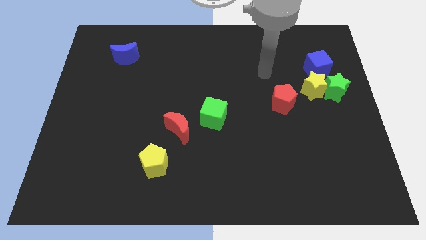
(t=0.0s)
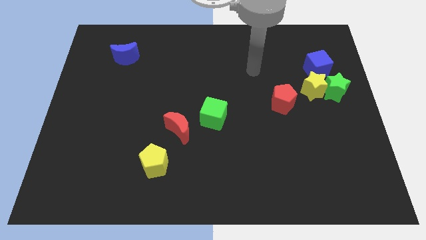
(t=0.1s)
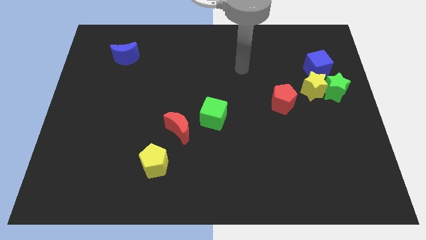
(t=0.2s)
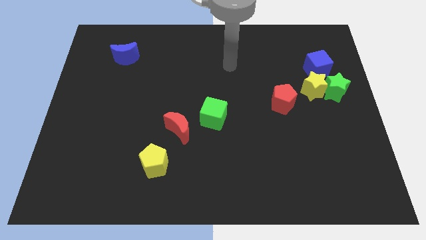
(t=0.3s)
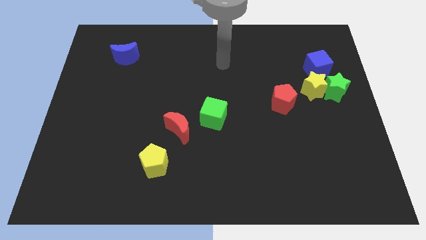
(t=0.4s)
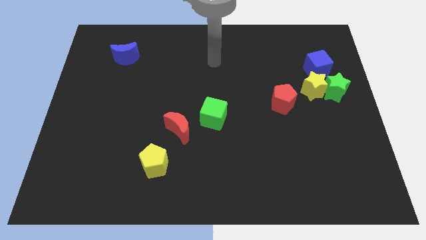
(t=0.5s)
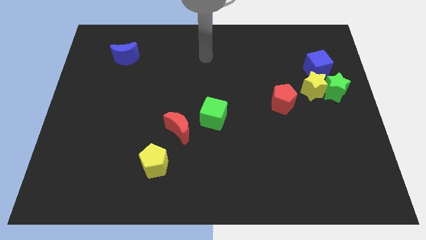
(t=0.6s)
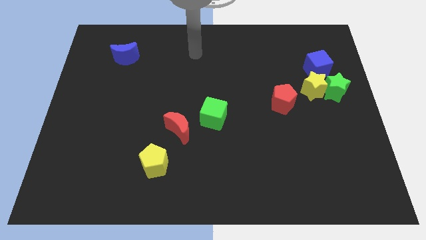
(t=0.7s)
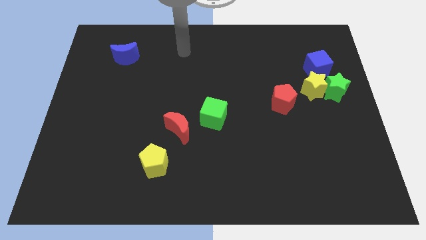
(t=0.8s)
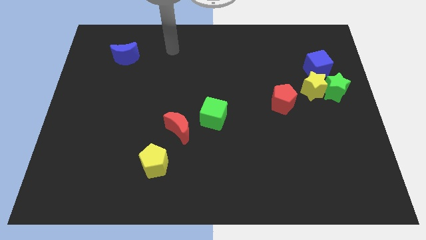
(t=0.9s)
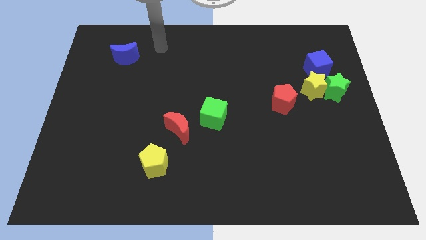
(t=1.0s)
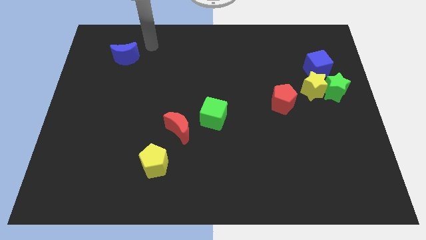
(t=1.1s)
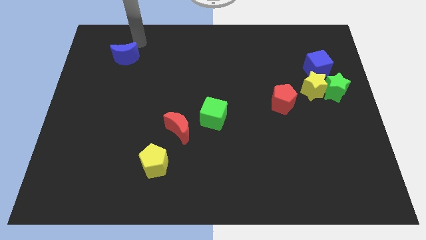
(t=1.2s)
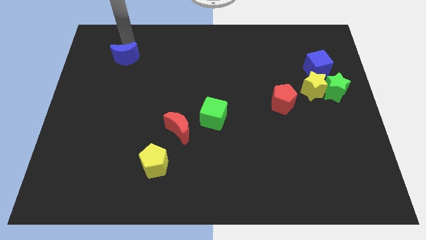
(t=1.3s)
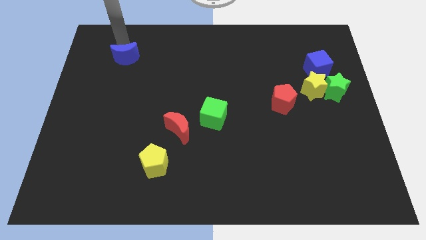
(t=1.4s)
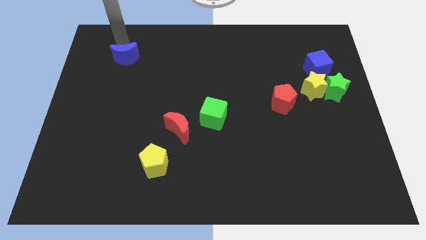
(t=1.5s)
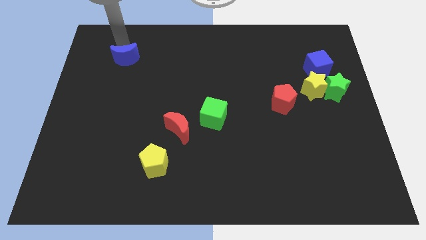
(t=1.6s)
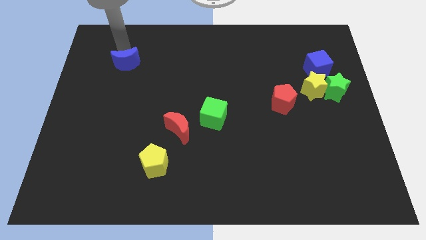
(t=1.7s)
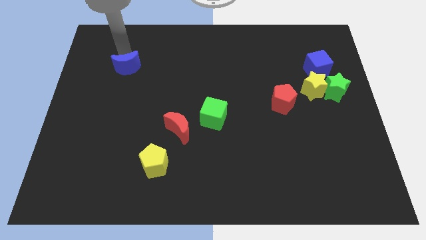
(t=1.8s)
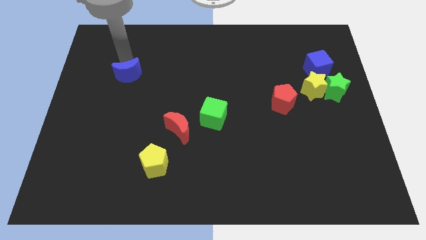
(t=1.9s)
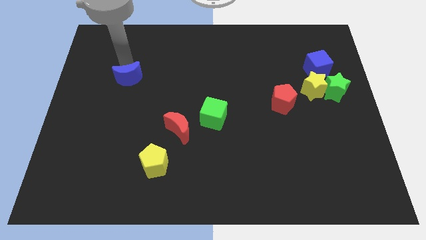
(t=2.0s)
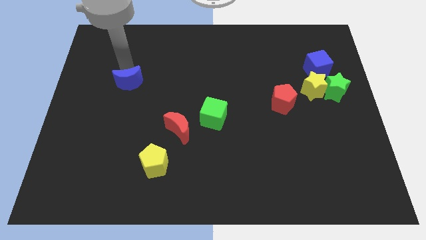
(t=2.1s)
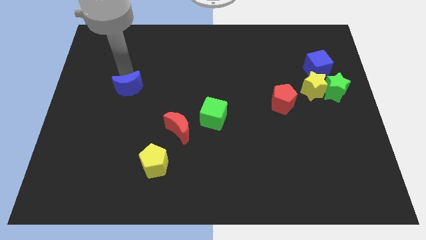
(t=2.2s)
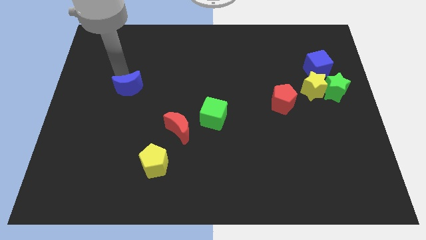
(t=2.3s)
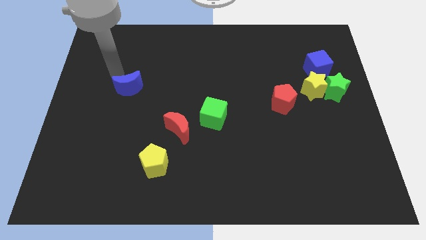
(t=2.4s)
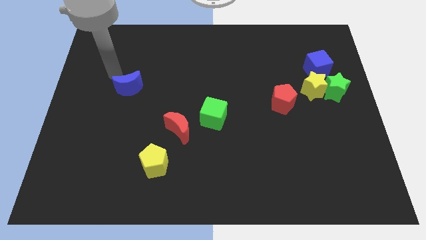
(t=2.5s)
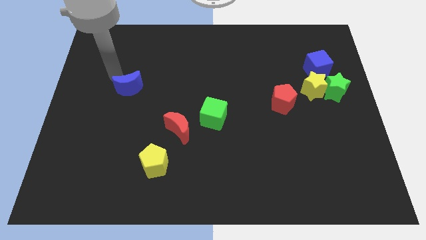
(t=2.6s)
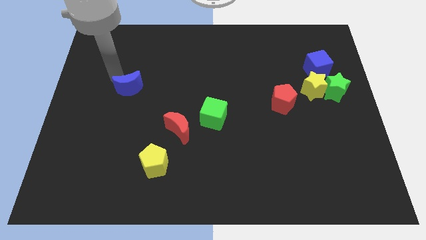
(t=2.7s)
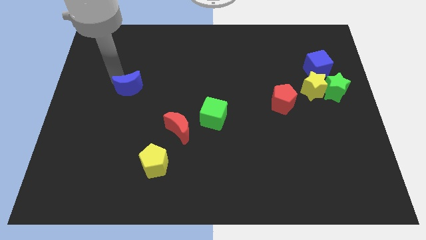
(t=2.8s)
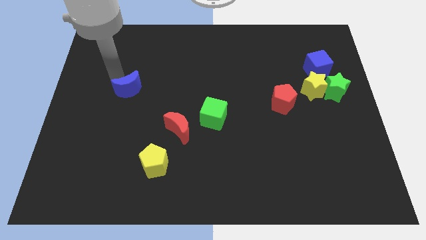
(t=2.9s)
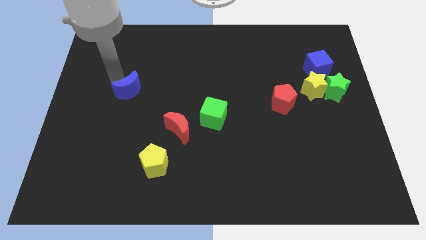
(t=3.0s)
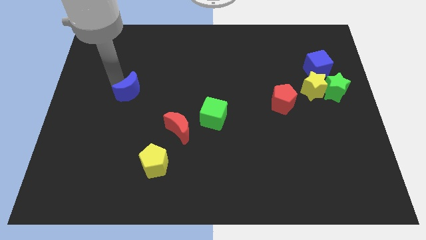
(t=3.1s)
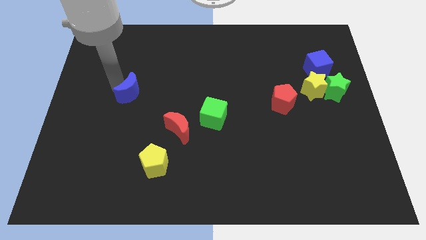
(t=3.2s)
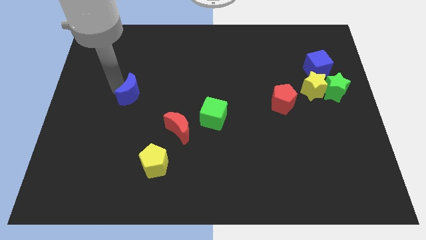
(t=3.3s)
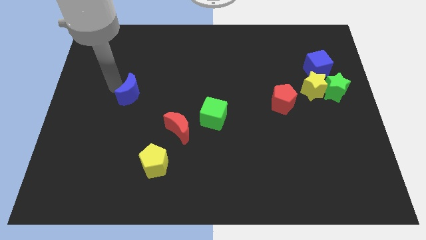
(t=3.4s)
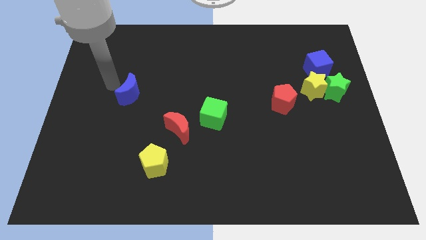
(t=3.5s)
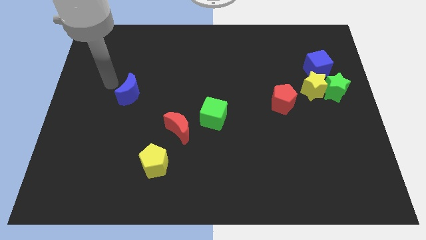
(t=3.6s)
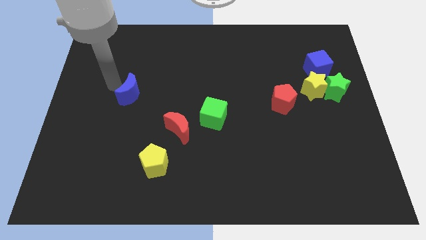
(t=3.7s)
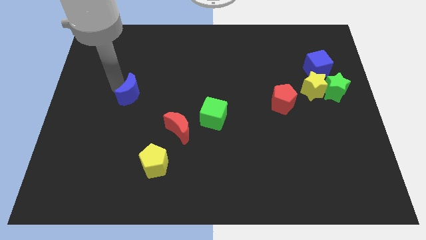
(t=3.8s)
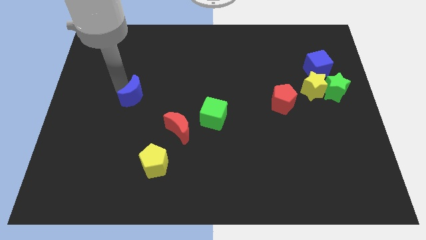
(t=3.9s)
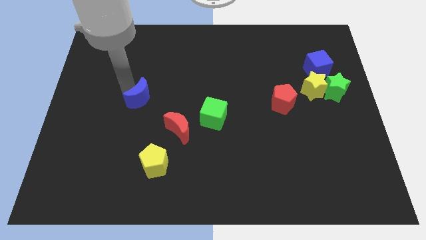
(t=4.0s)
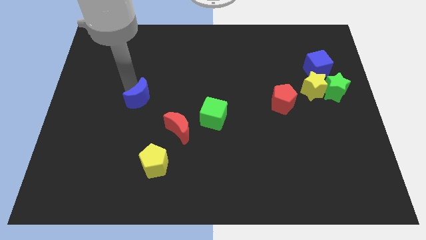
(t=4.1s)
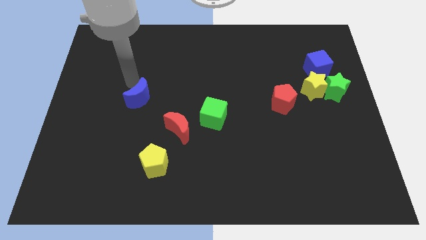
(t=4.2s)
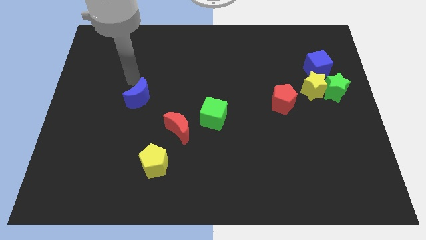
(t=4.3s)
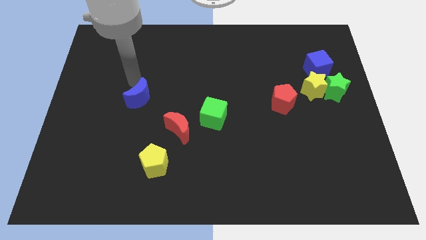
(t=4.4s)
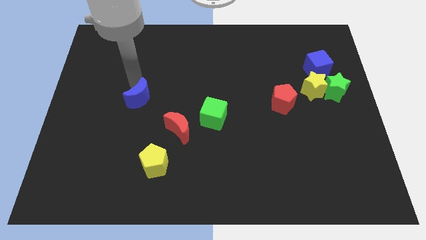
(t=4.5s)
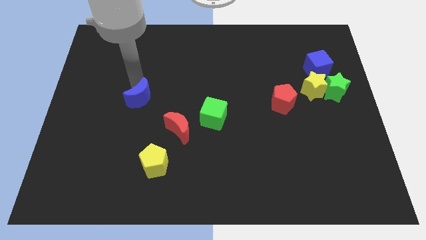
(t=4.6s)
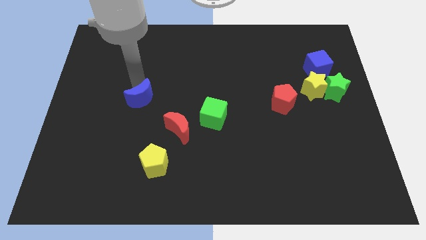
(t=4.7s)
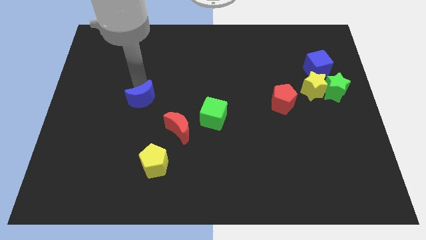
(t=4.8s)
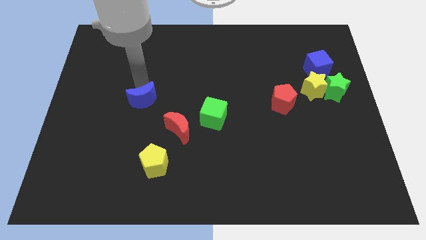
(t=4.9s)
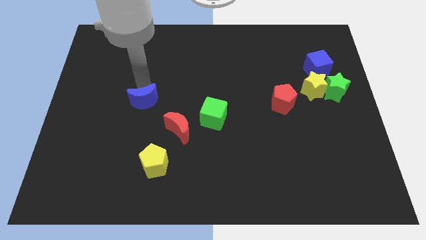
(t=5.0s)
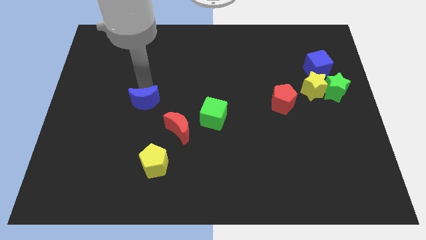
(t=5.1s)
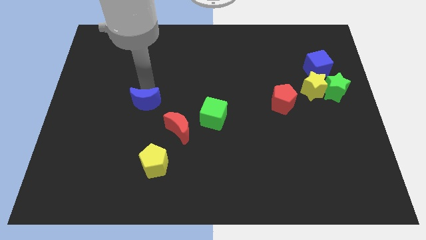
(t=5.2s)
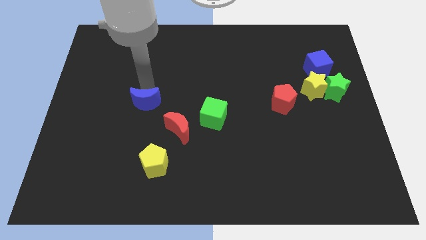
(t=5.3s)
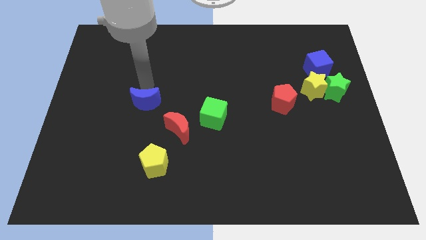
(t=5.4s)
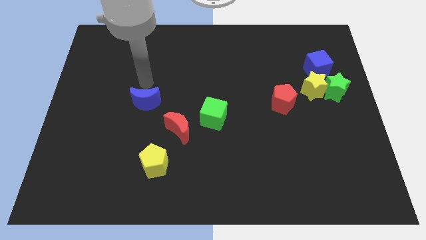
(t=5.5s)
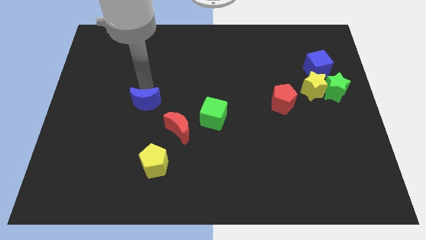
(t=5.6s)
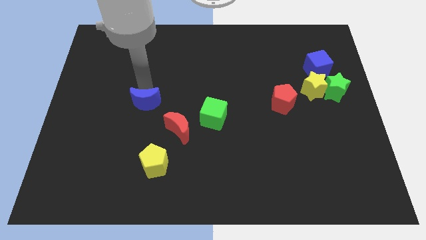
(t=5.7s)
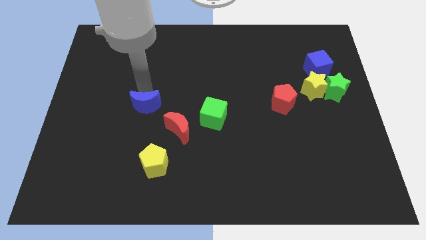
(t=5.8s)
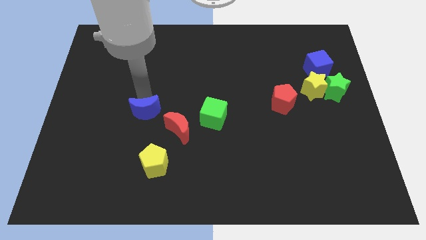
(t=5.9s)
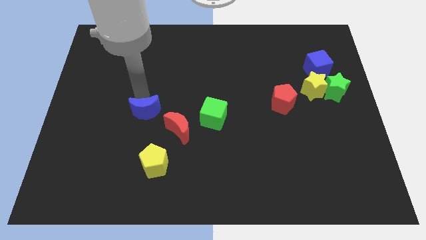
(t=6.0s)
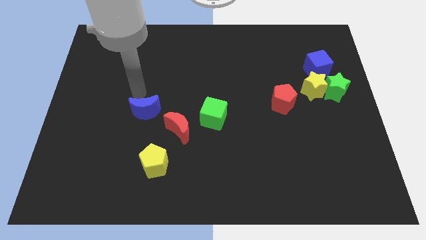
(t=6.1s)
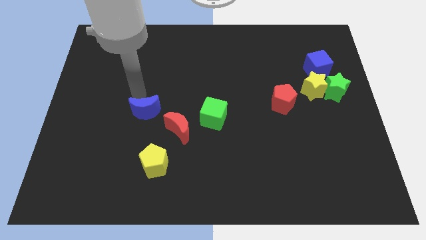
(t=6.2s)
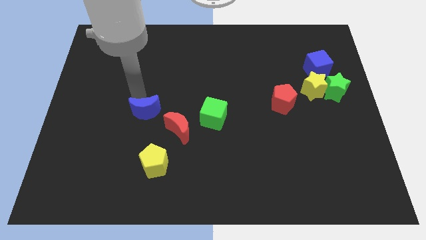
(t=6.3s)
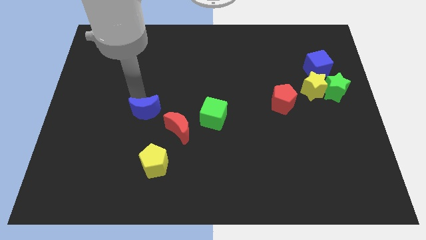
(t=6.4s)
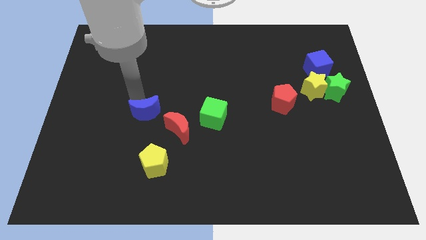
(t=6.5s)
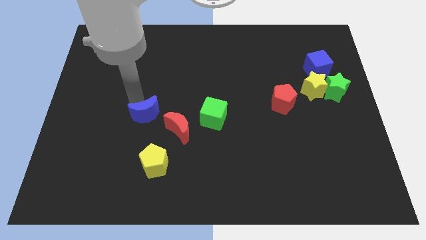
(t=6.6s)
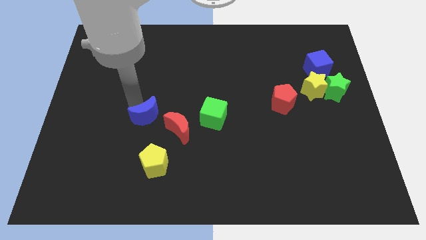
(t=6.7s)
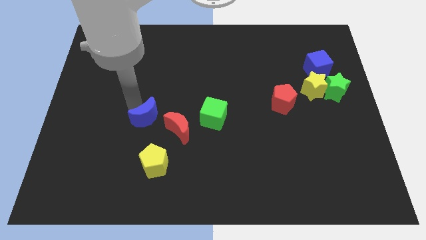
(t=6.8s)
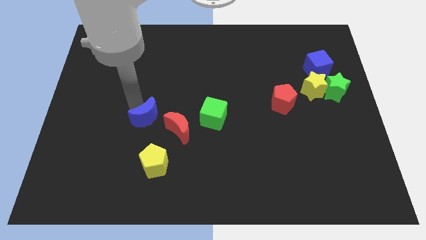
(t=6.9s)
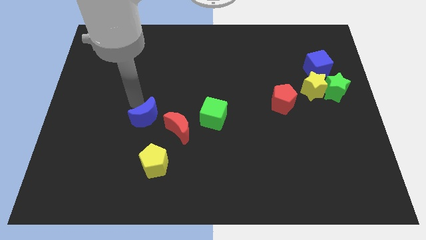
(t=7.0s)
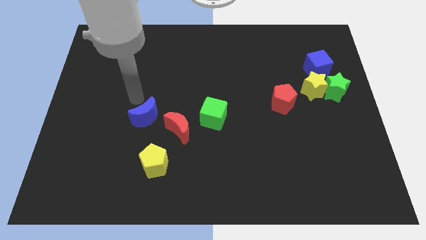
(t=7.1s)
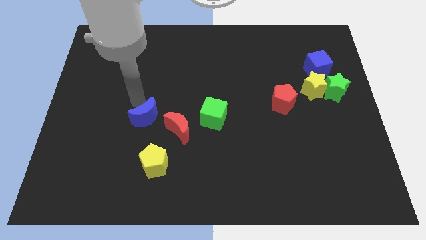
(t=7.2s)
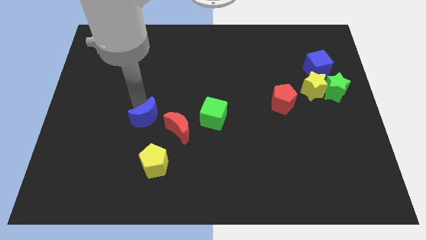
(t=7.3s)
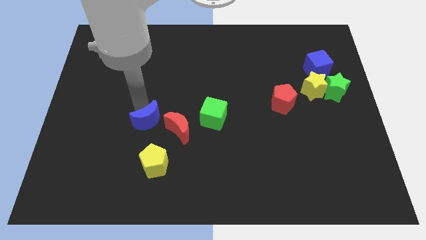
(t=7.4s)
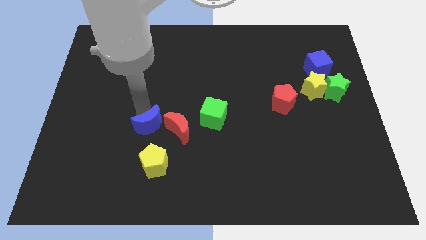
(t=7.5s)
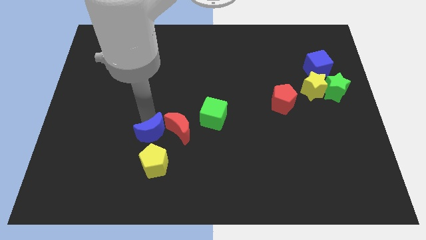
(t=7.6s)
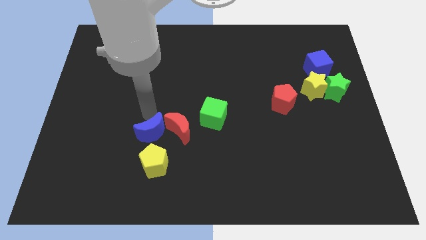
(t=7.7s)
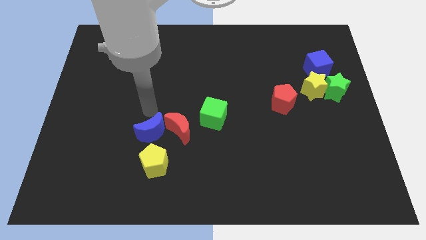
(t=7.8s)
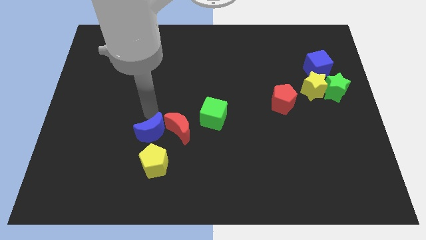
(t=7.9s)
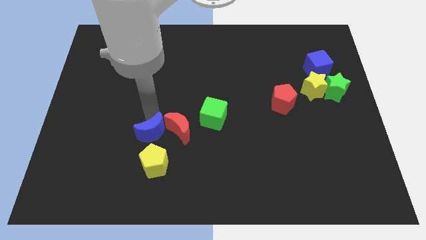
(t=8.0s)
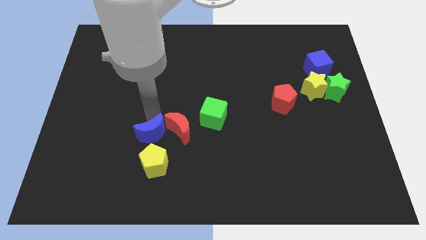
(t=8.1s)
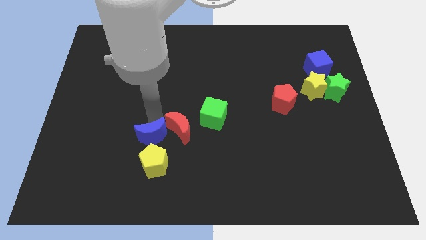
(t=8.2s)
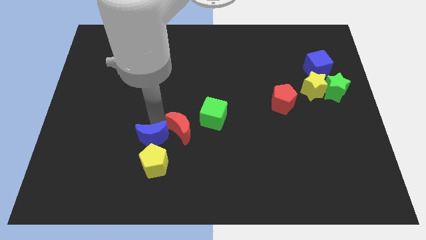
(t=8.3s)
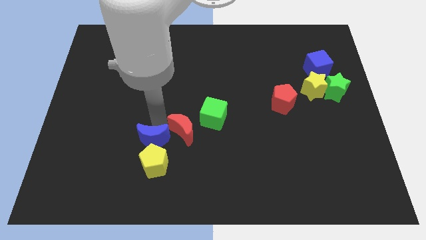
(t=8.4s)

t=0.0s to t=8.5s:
slide the blue moon close to the yellow pentagon
